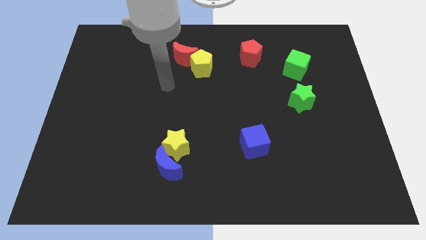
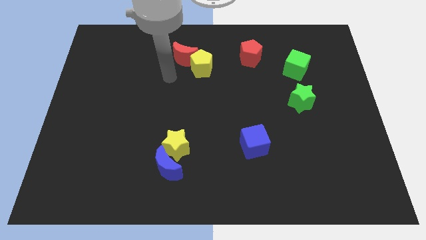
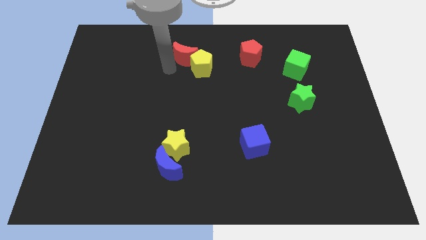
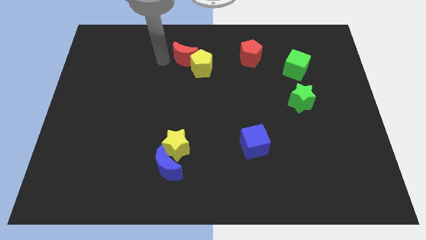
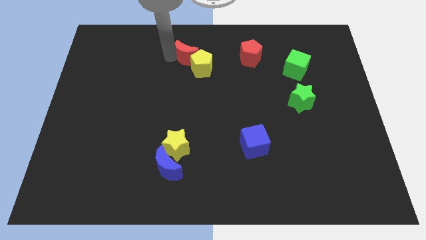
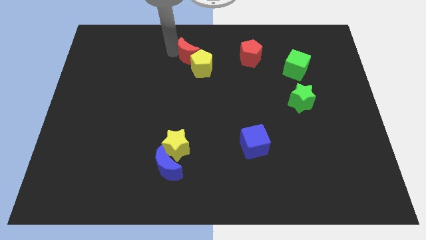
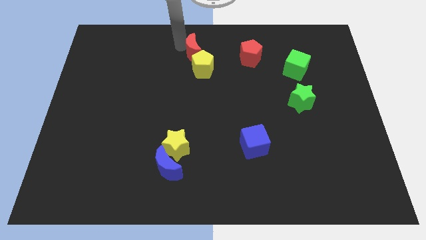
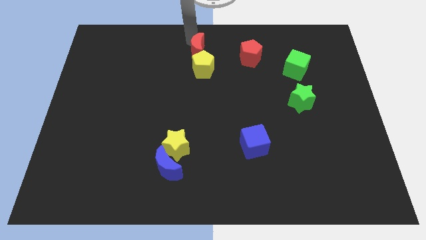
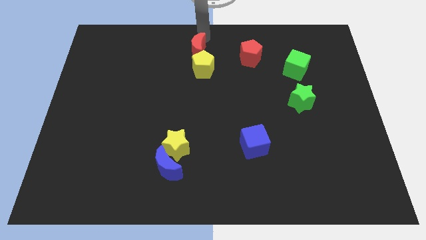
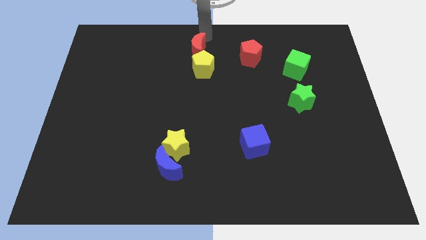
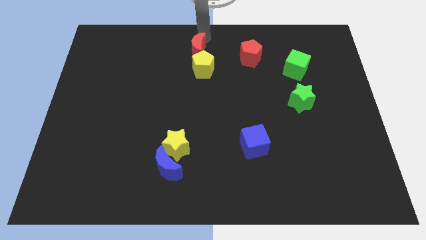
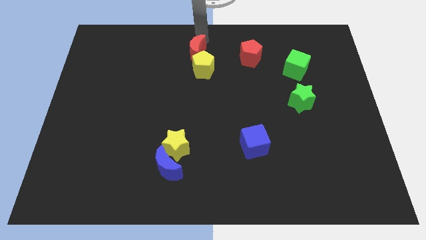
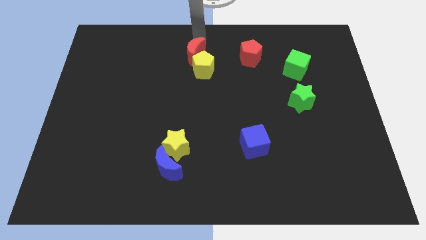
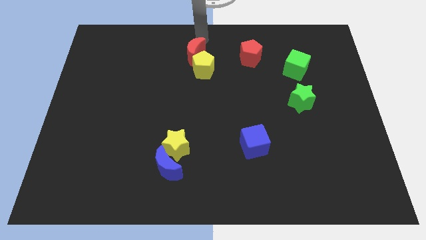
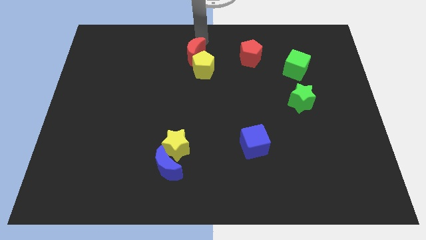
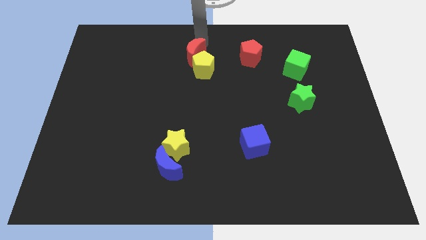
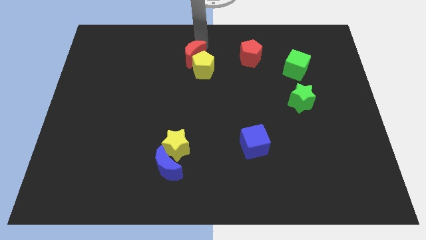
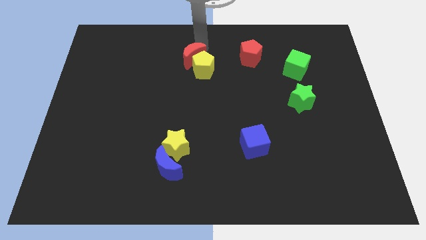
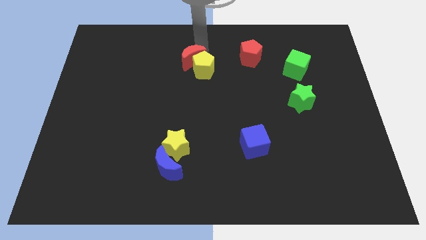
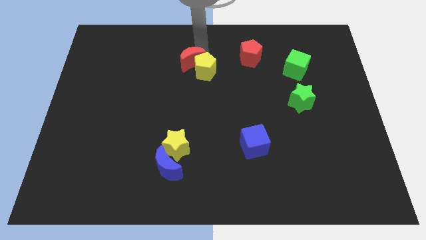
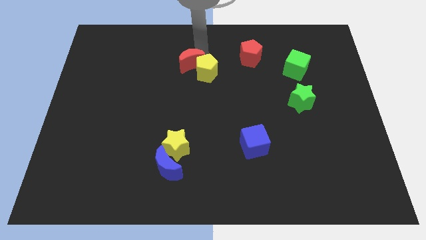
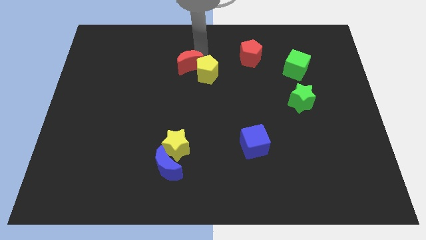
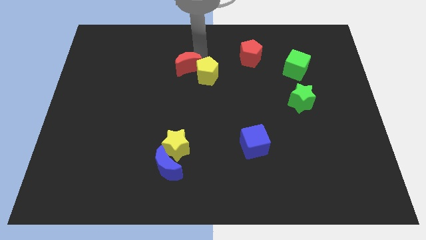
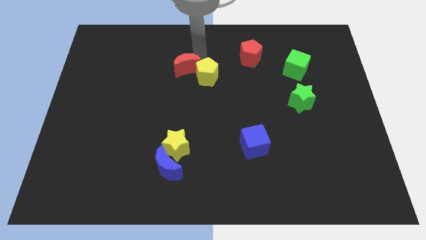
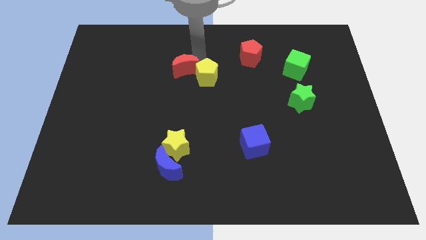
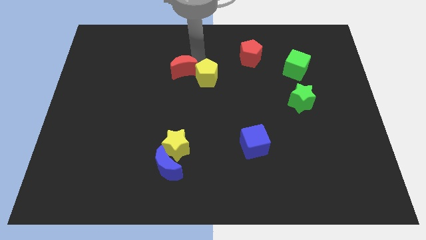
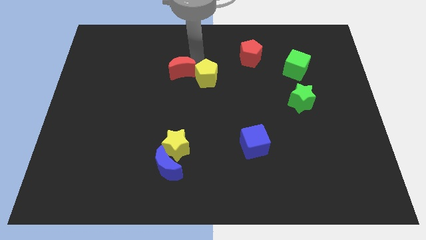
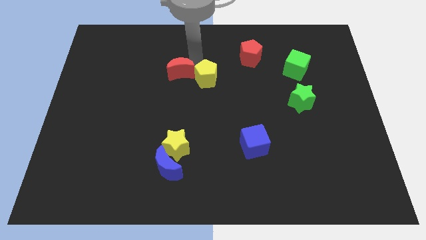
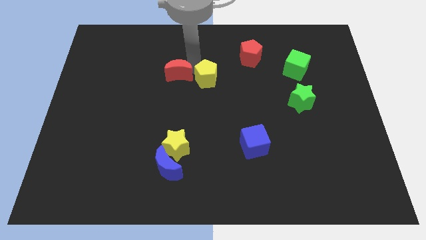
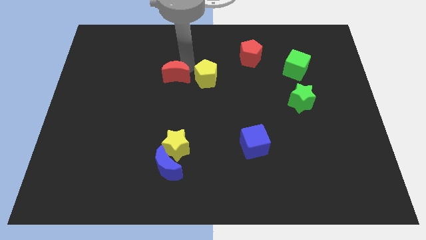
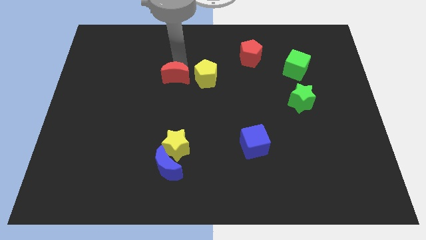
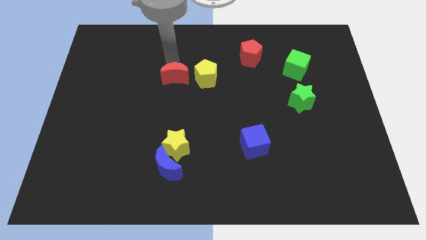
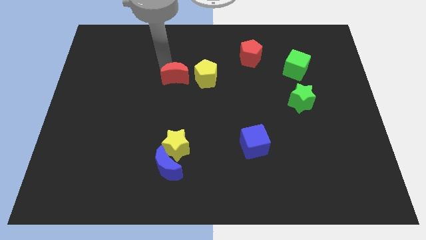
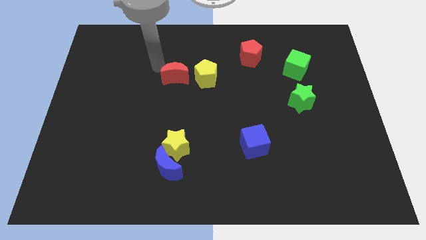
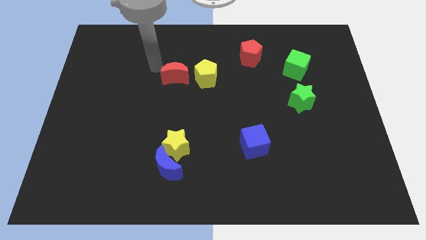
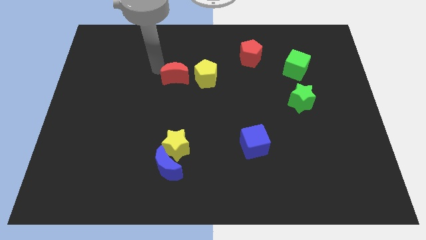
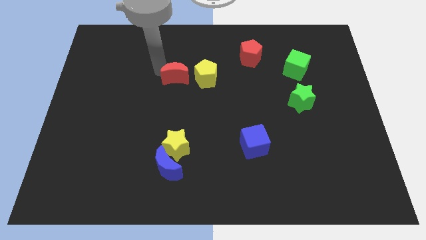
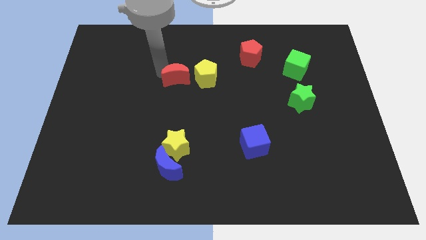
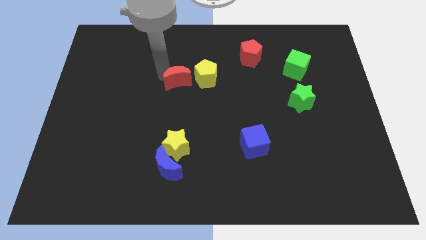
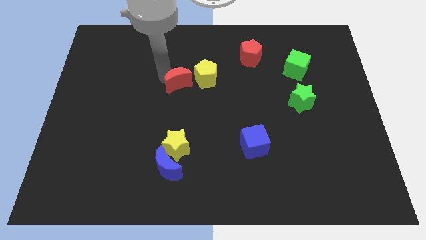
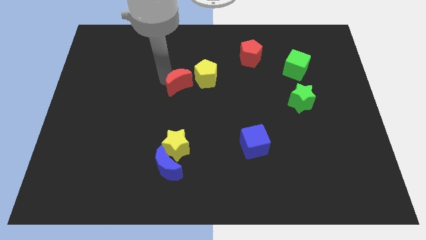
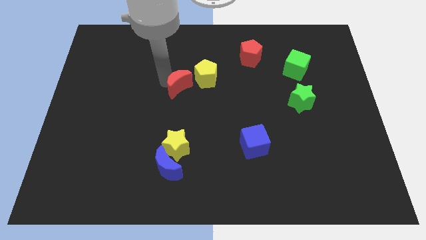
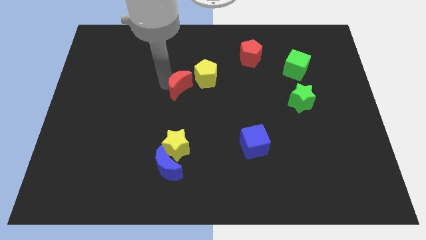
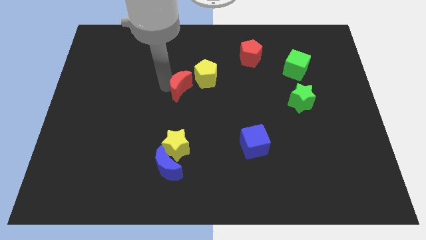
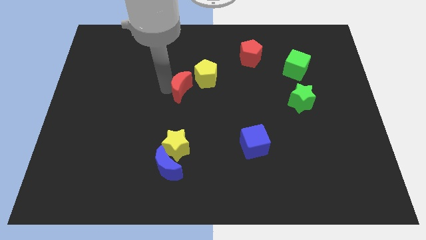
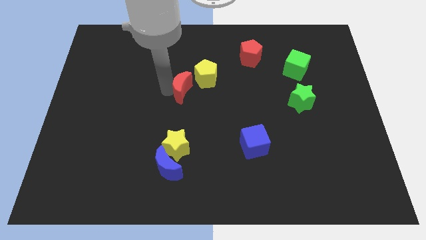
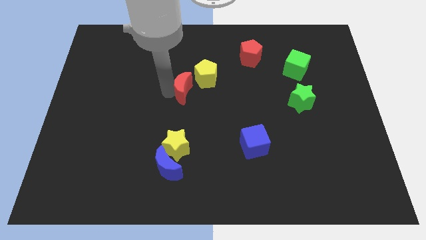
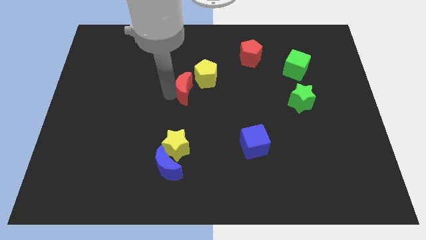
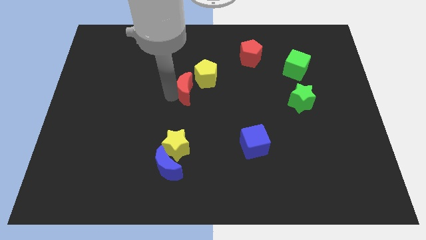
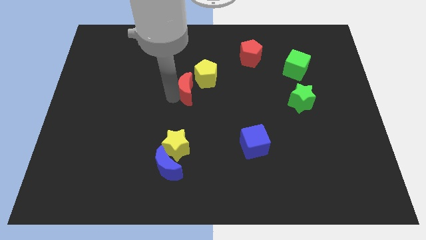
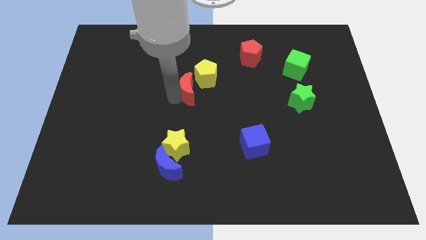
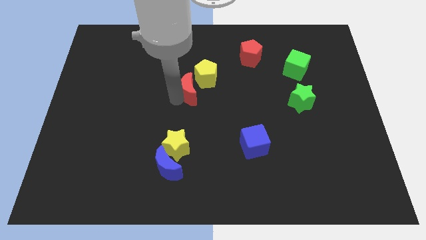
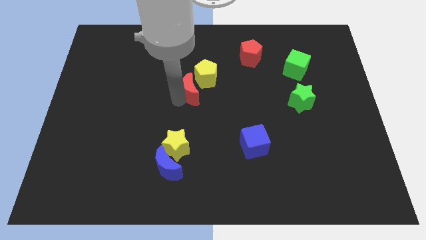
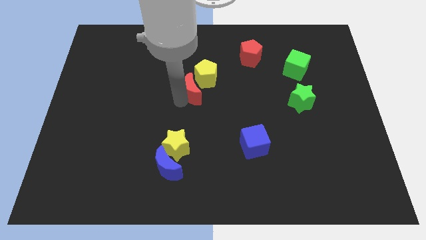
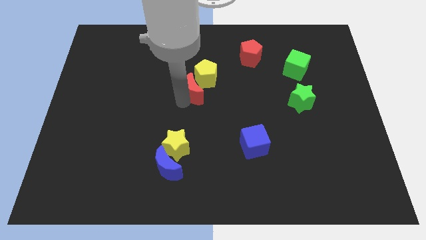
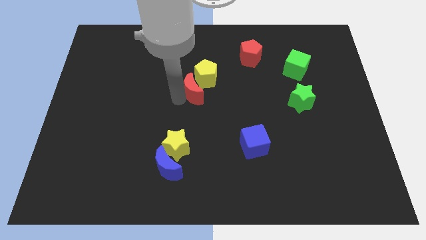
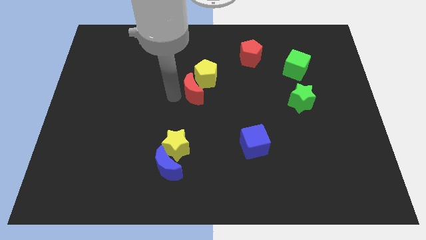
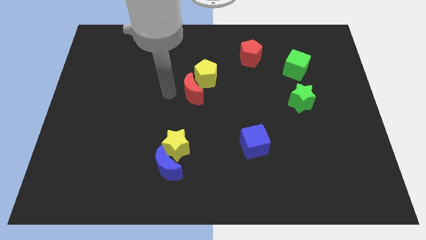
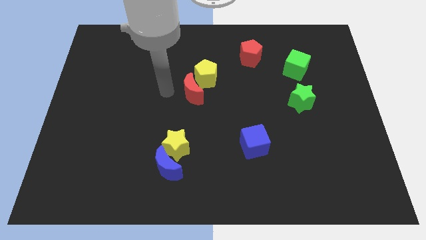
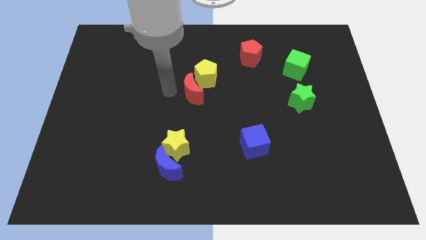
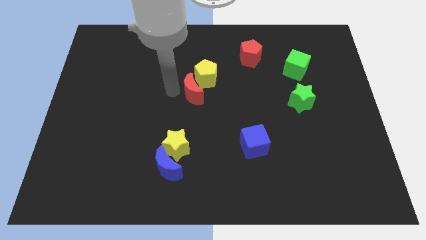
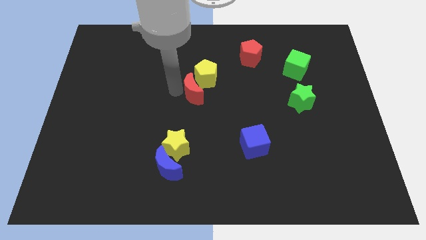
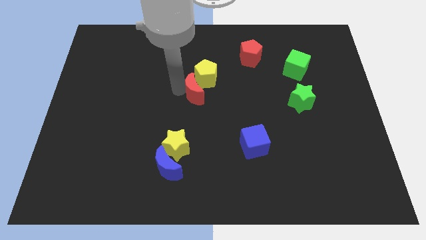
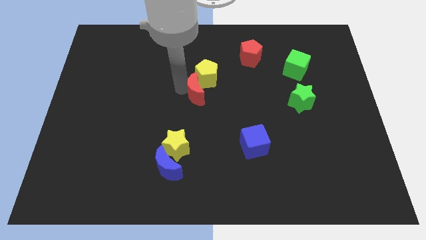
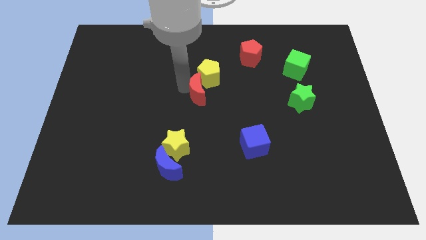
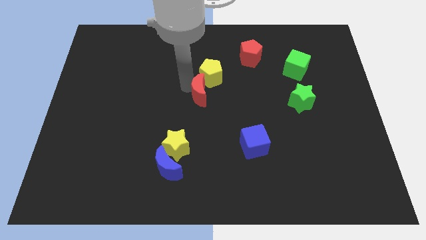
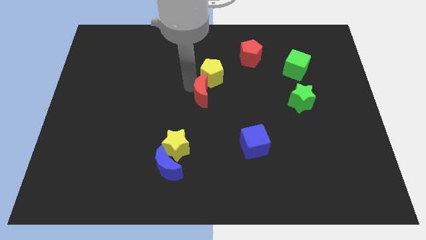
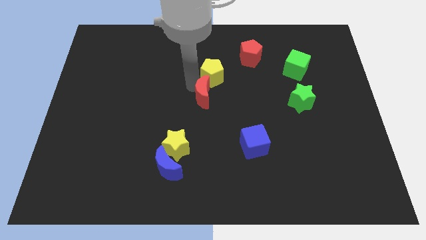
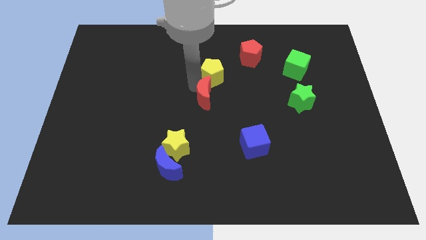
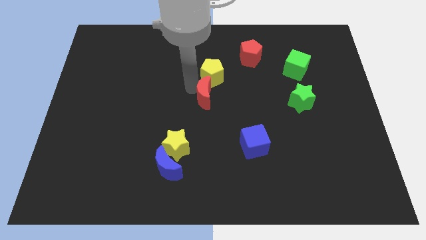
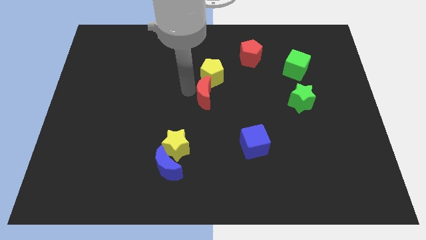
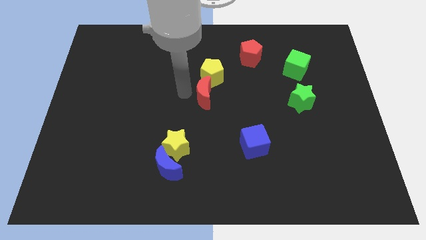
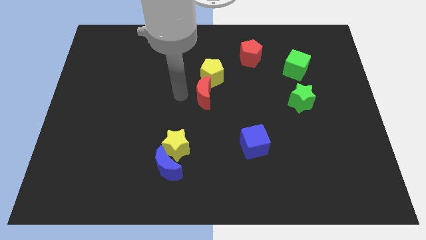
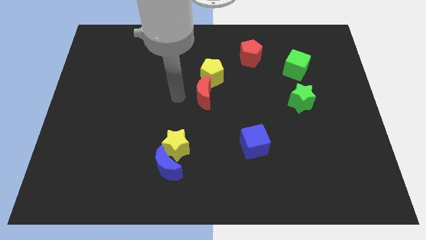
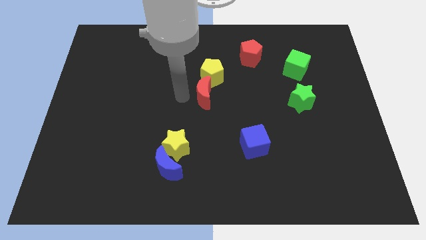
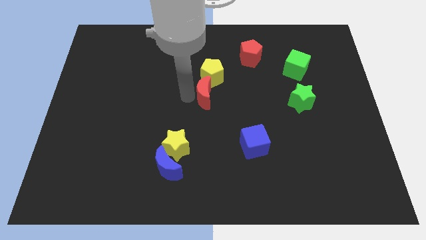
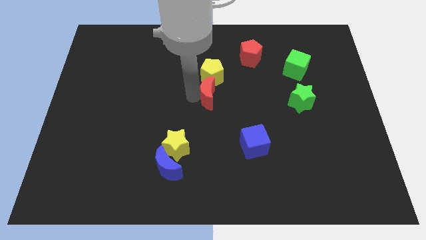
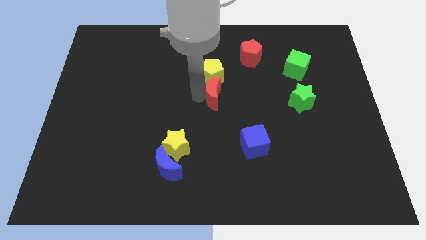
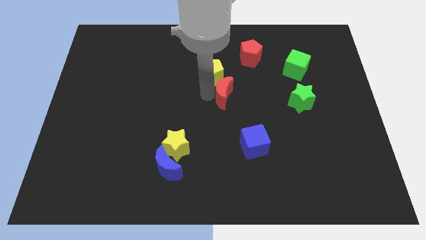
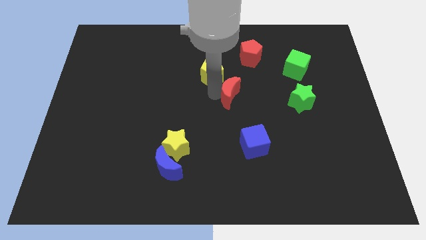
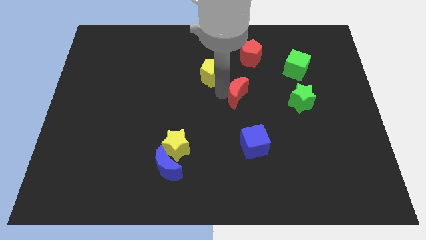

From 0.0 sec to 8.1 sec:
slide the red moon above the blue cube
